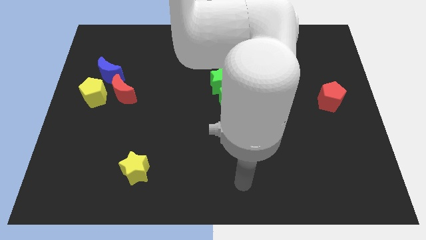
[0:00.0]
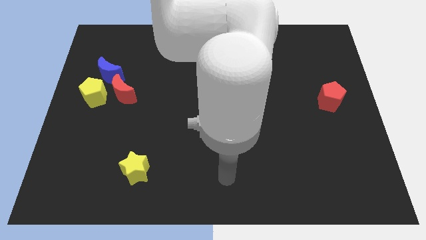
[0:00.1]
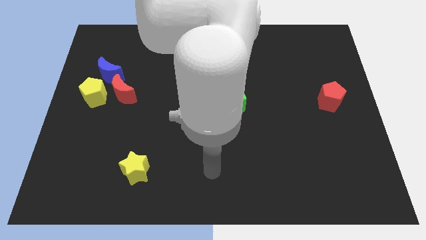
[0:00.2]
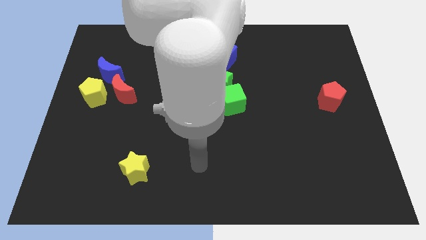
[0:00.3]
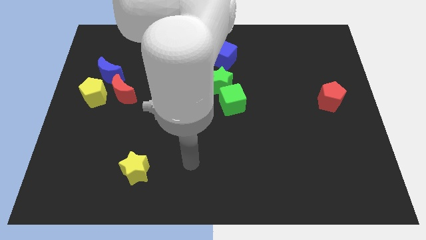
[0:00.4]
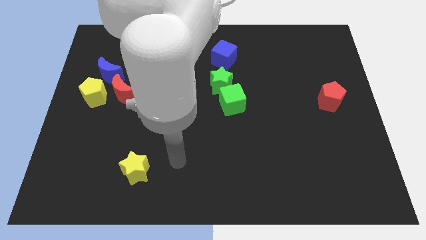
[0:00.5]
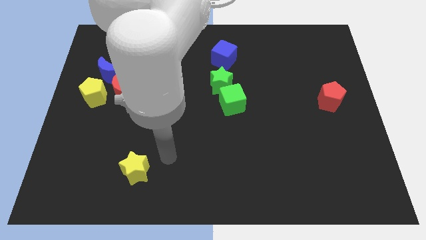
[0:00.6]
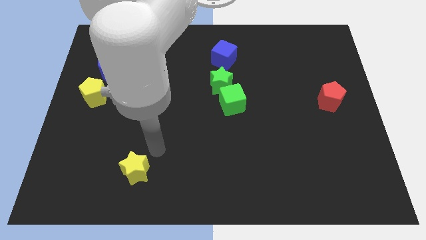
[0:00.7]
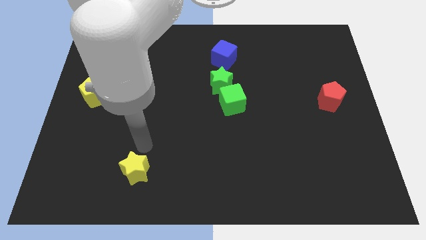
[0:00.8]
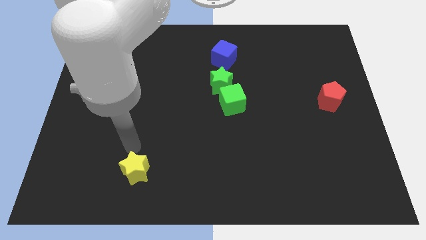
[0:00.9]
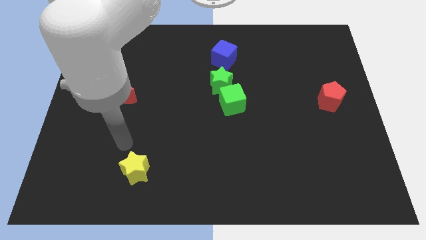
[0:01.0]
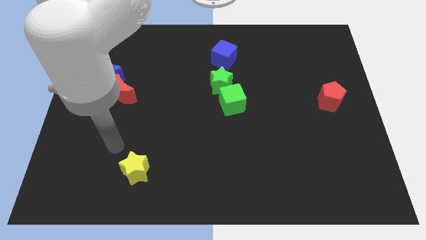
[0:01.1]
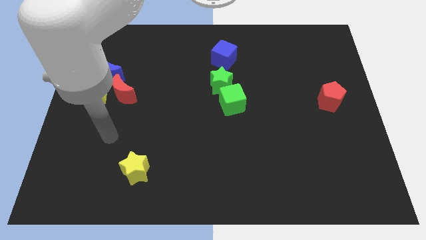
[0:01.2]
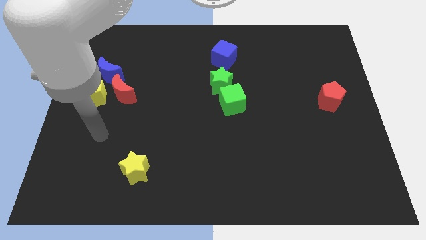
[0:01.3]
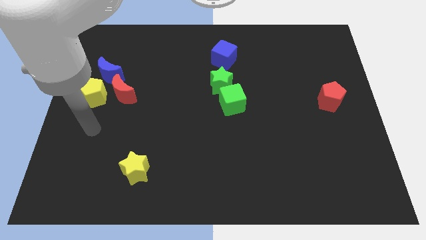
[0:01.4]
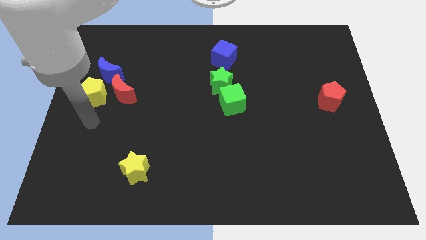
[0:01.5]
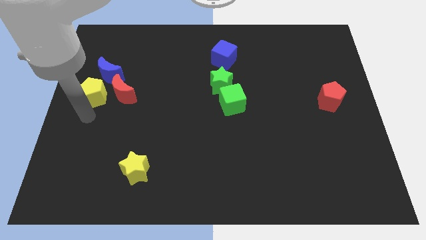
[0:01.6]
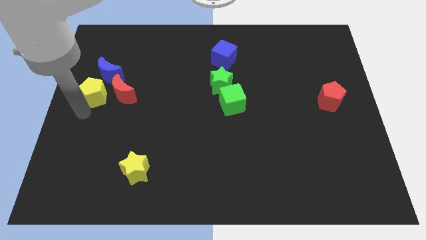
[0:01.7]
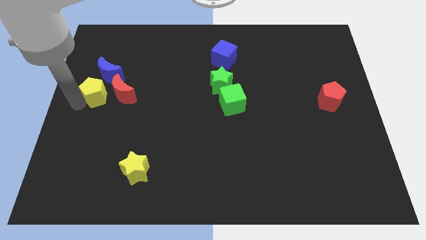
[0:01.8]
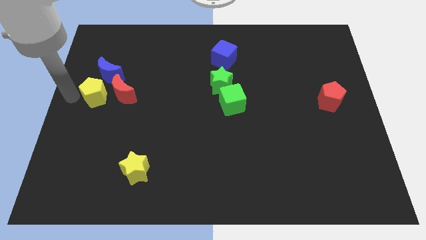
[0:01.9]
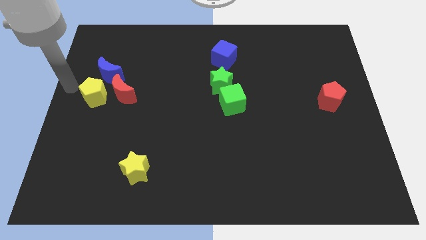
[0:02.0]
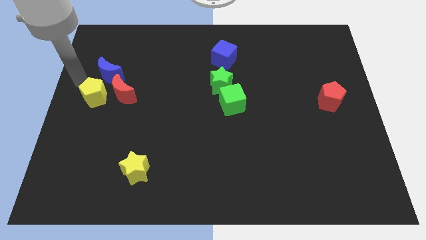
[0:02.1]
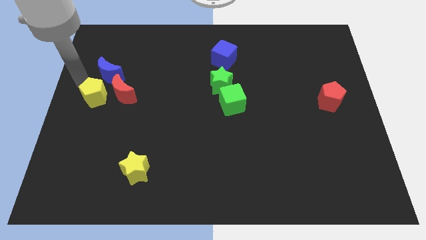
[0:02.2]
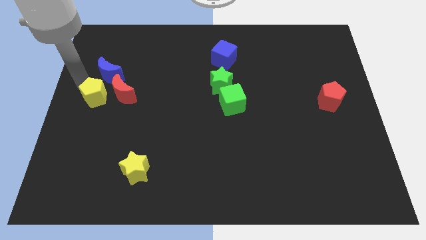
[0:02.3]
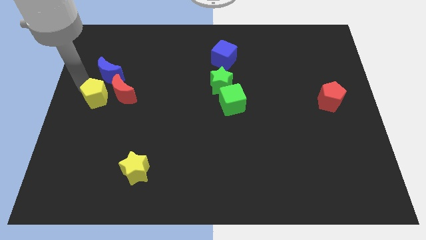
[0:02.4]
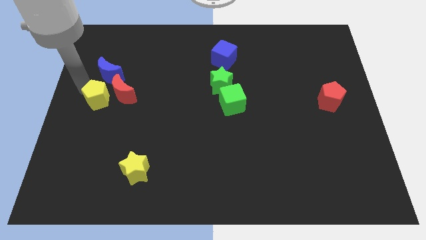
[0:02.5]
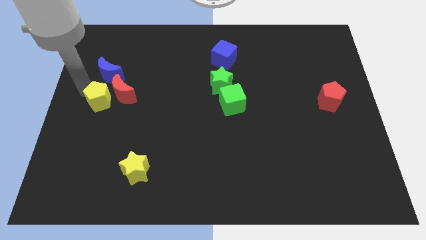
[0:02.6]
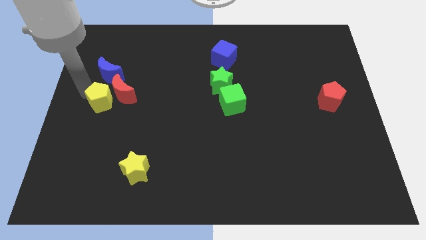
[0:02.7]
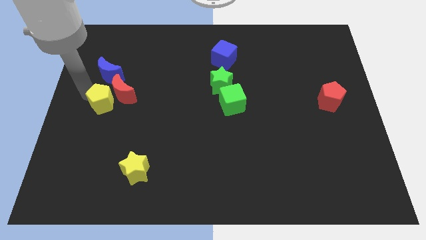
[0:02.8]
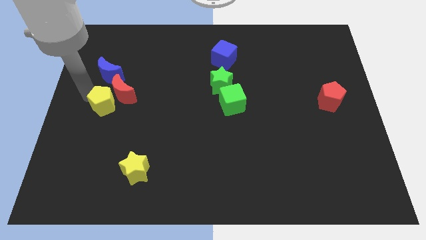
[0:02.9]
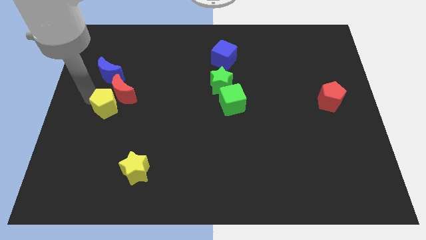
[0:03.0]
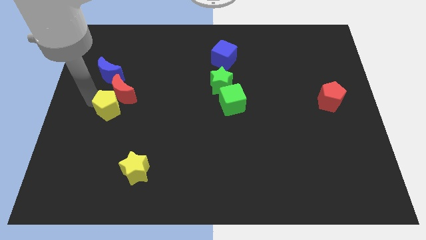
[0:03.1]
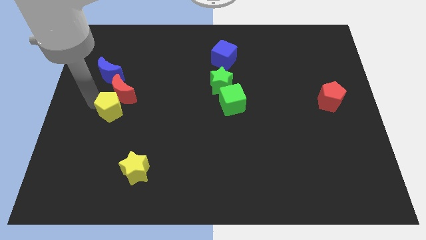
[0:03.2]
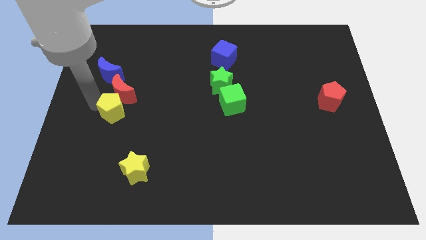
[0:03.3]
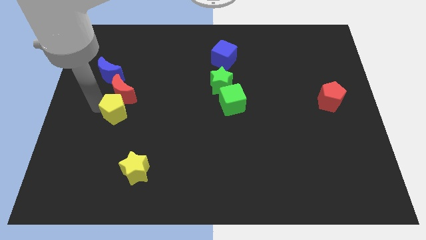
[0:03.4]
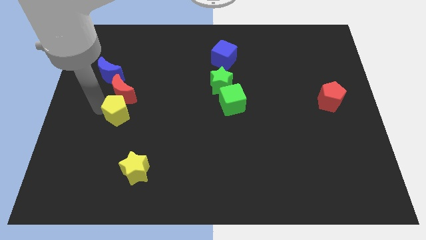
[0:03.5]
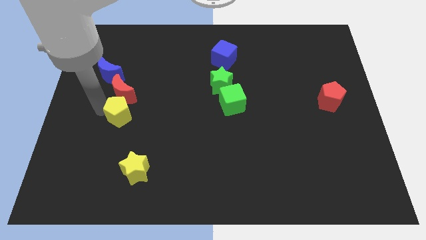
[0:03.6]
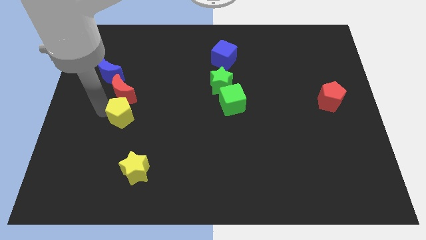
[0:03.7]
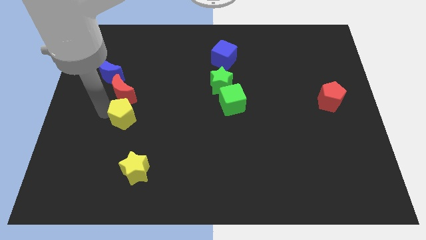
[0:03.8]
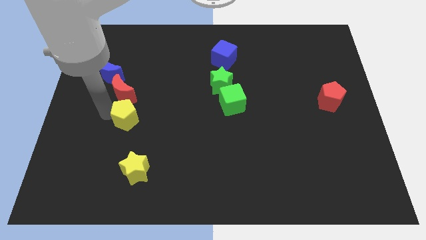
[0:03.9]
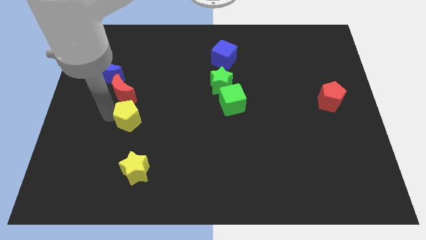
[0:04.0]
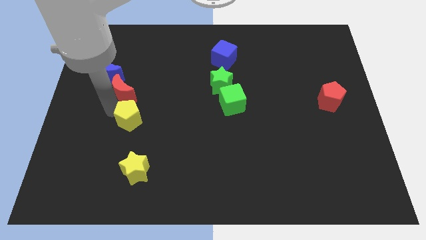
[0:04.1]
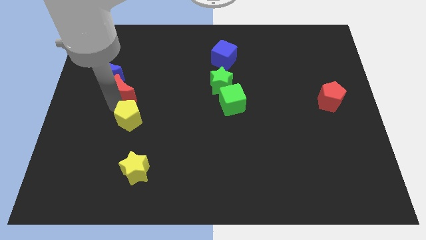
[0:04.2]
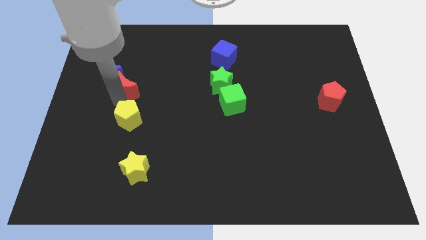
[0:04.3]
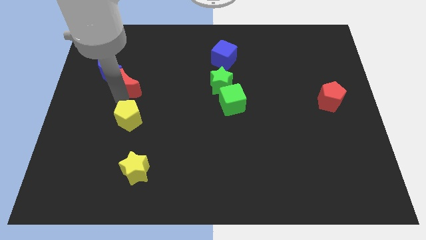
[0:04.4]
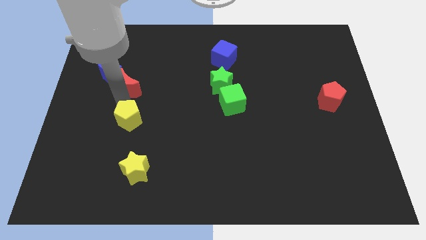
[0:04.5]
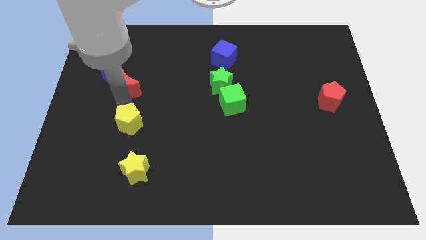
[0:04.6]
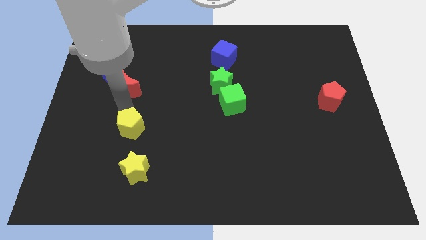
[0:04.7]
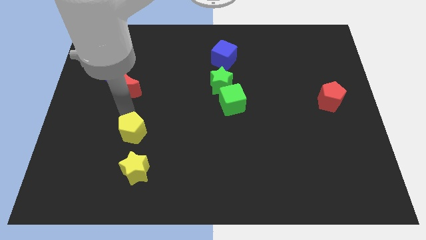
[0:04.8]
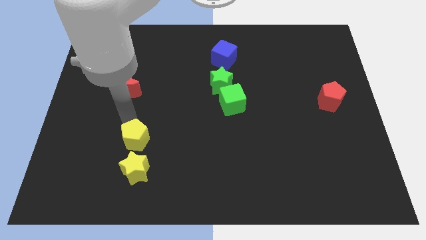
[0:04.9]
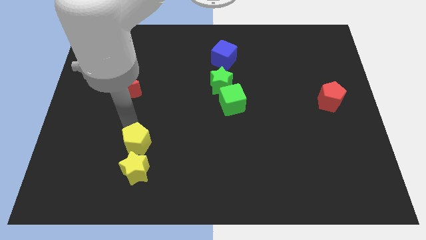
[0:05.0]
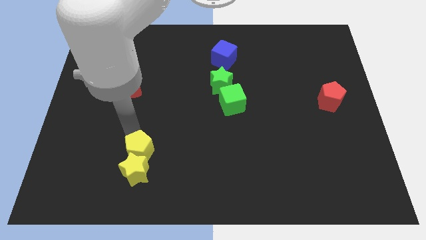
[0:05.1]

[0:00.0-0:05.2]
slide the yellow pentagon down and to the right

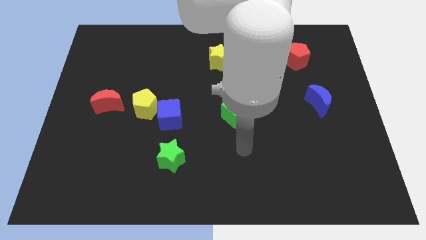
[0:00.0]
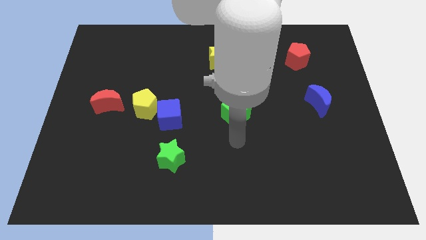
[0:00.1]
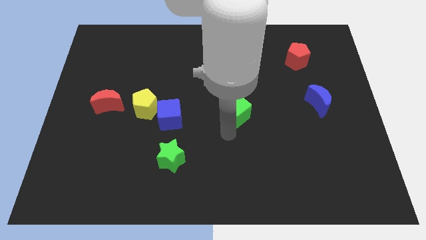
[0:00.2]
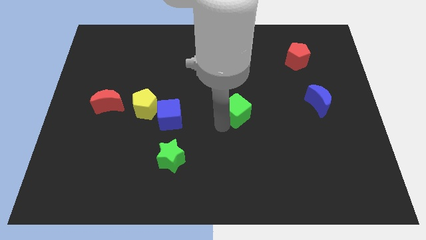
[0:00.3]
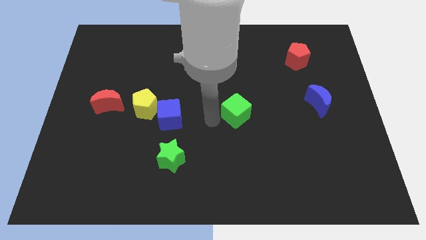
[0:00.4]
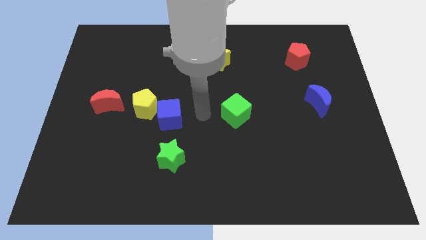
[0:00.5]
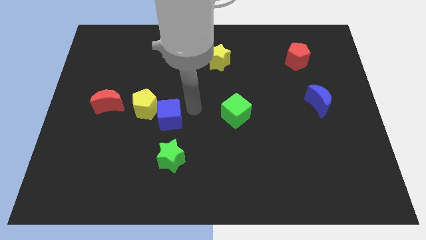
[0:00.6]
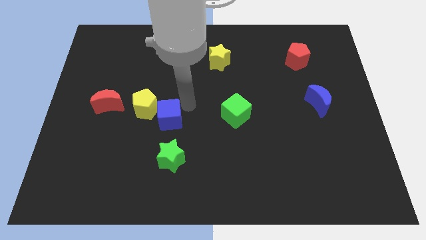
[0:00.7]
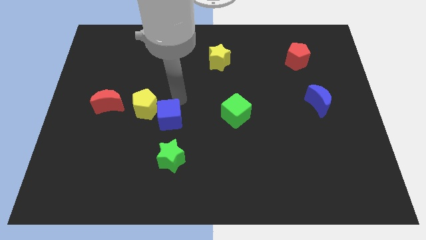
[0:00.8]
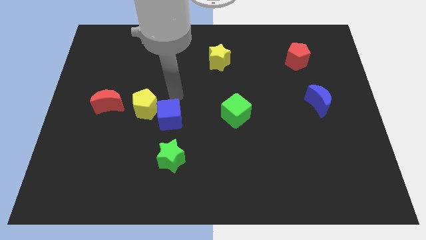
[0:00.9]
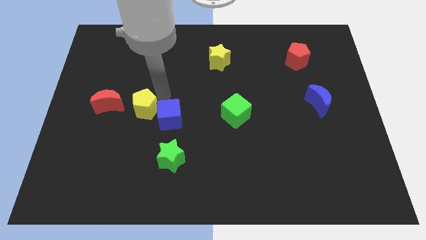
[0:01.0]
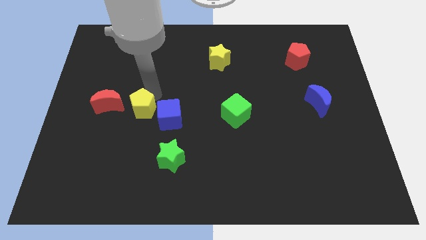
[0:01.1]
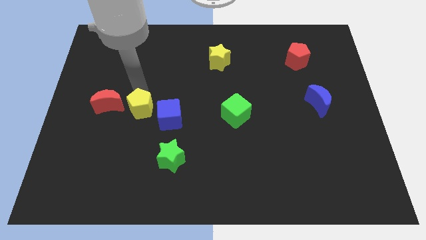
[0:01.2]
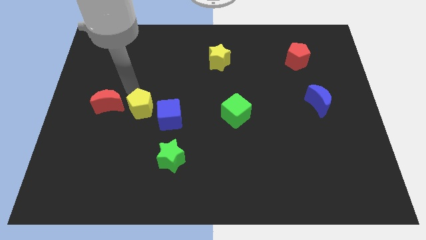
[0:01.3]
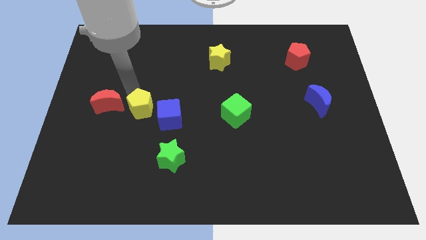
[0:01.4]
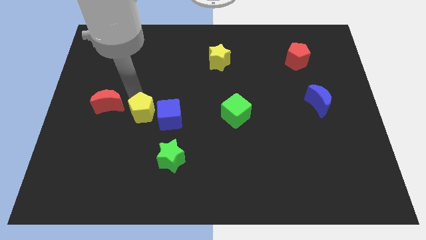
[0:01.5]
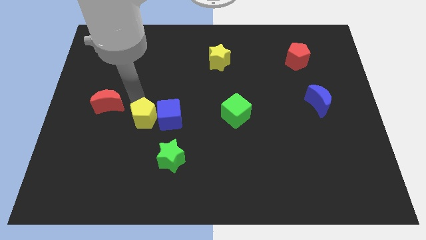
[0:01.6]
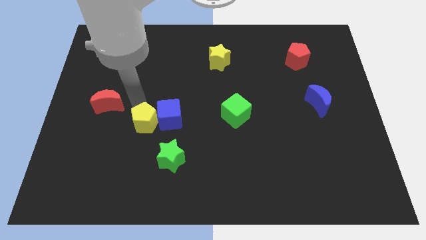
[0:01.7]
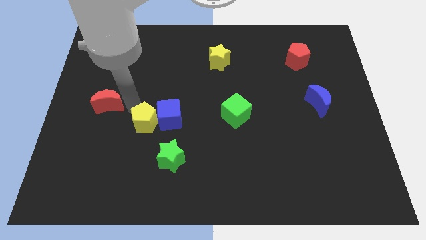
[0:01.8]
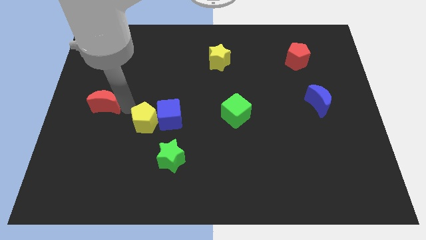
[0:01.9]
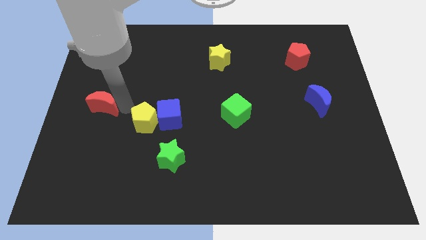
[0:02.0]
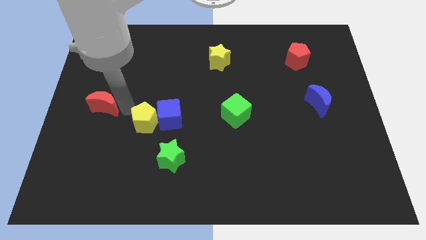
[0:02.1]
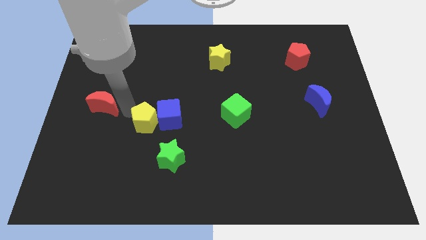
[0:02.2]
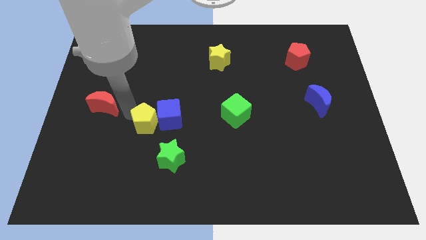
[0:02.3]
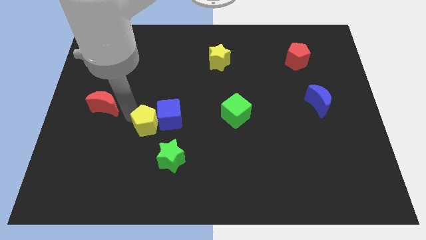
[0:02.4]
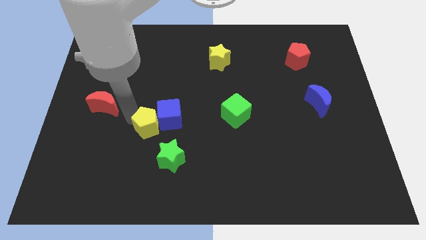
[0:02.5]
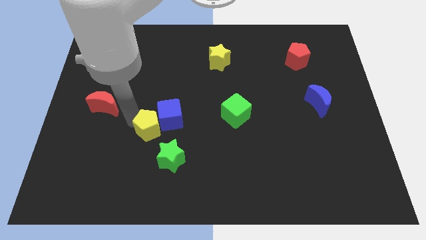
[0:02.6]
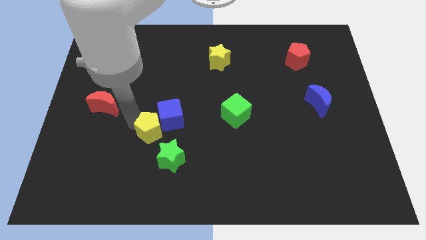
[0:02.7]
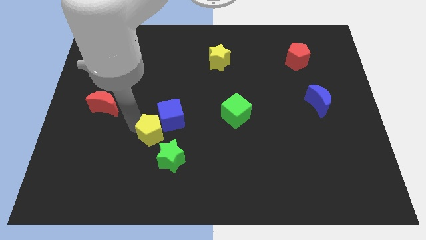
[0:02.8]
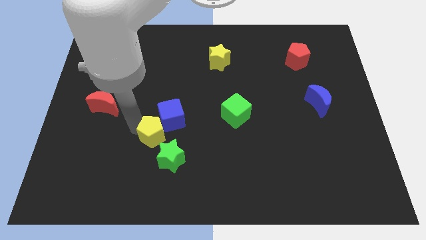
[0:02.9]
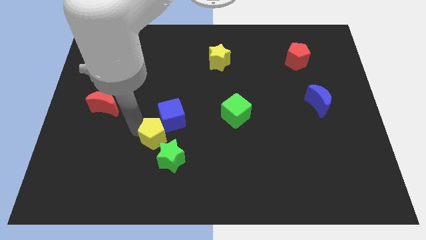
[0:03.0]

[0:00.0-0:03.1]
push the yellow pentagon down and right a little bit
